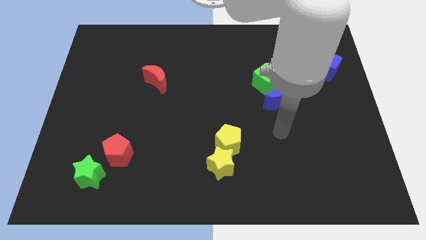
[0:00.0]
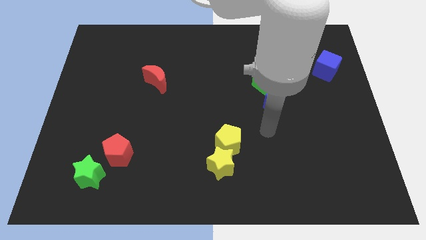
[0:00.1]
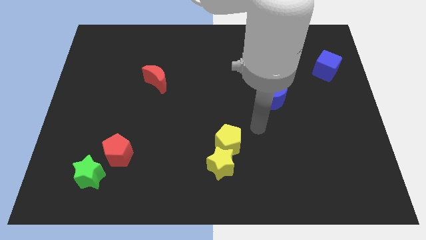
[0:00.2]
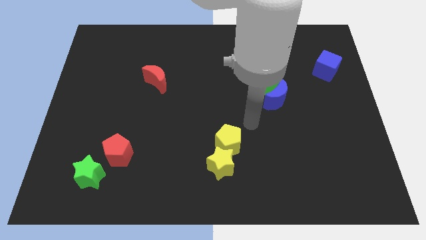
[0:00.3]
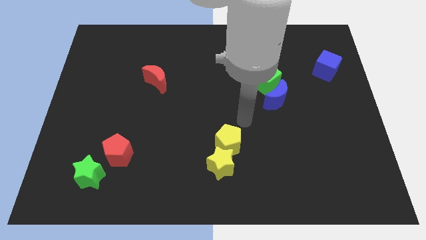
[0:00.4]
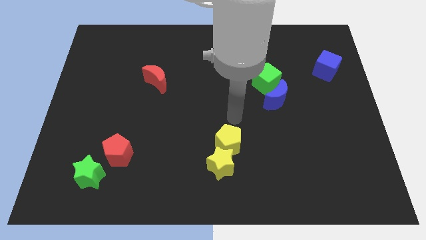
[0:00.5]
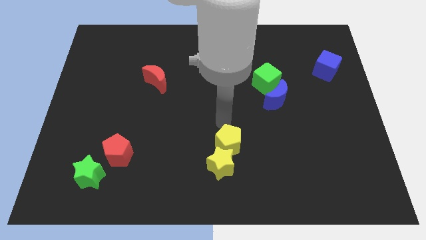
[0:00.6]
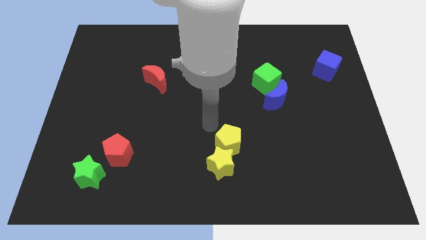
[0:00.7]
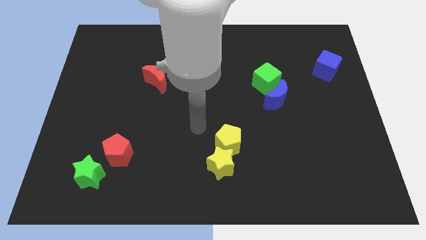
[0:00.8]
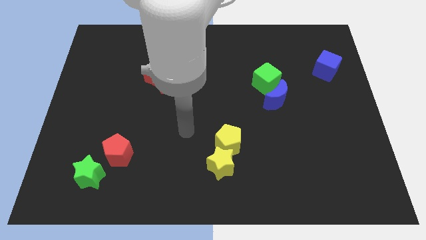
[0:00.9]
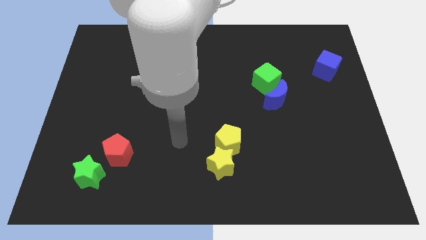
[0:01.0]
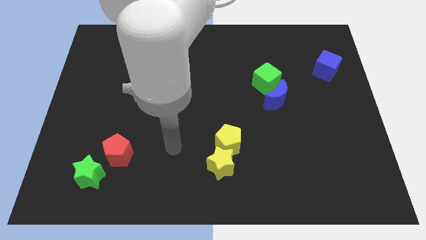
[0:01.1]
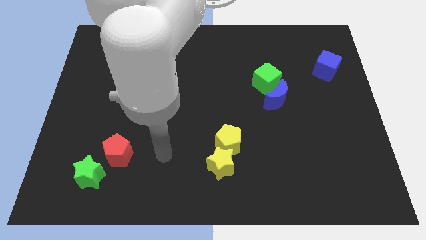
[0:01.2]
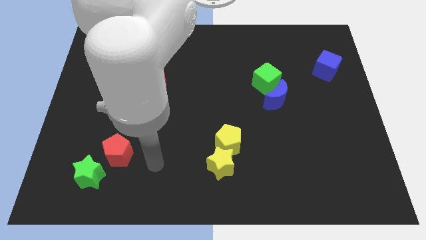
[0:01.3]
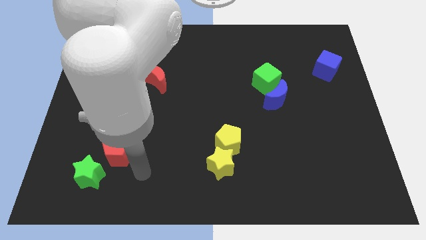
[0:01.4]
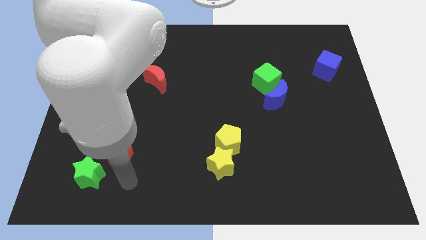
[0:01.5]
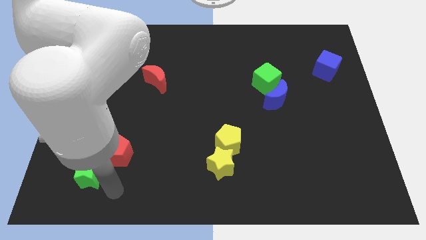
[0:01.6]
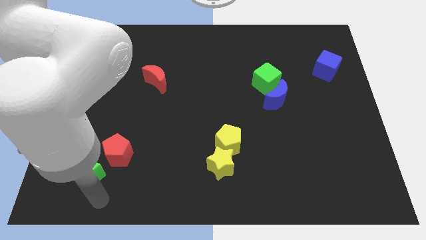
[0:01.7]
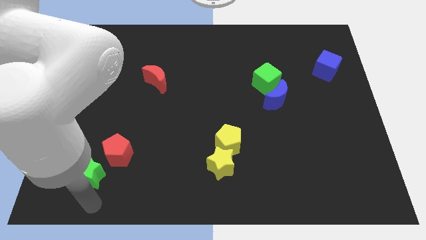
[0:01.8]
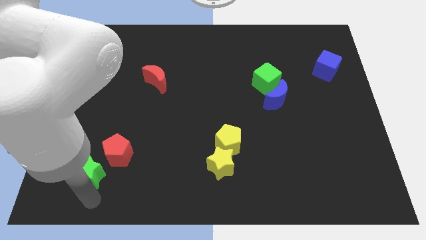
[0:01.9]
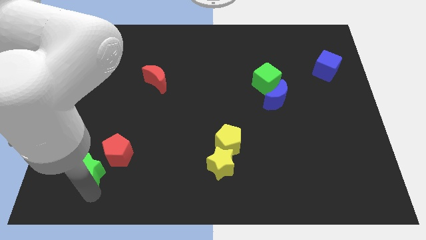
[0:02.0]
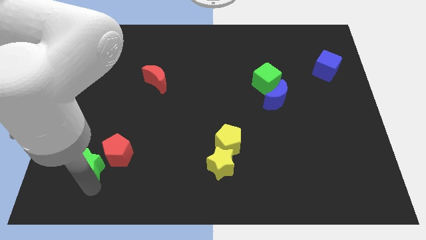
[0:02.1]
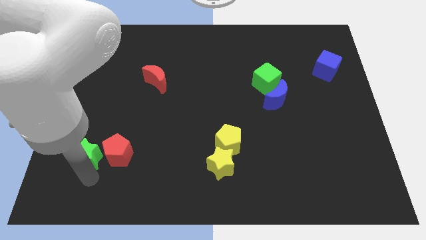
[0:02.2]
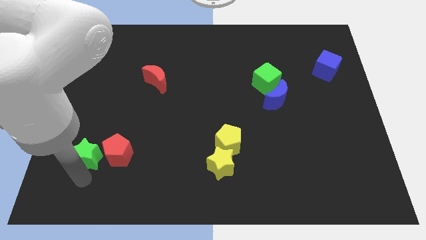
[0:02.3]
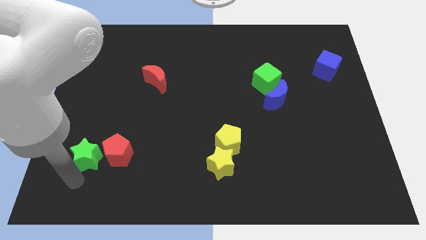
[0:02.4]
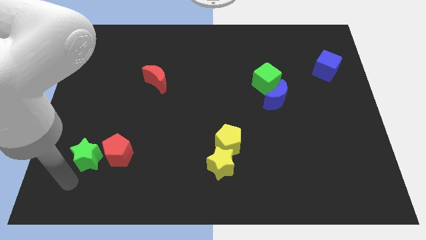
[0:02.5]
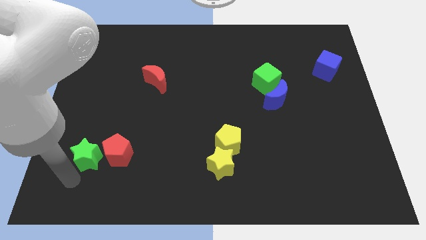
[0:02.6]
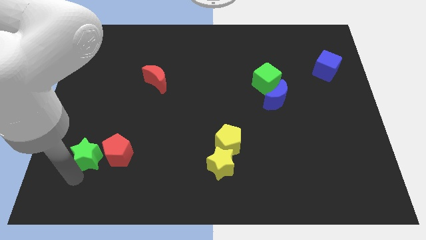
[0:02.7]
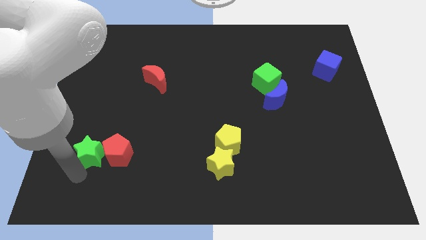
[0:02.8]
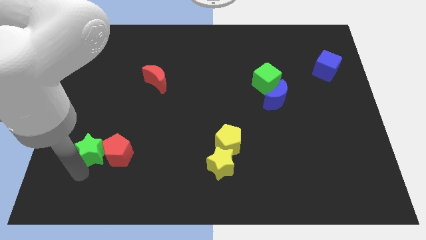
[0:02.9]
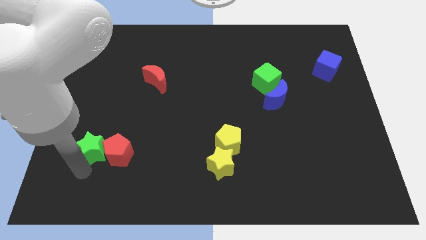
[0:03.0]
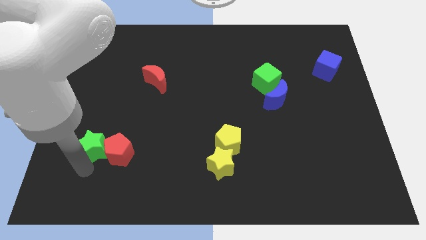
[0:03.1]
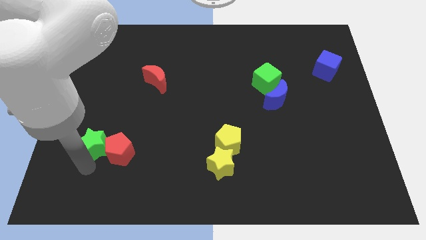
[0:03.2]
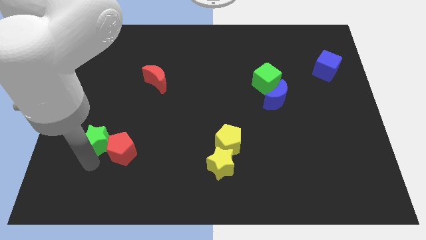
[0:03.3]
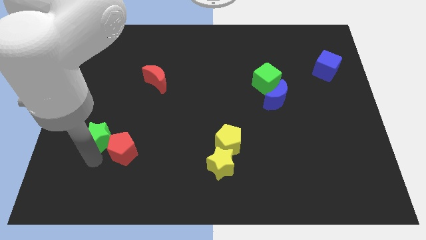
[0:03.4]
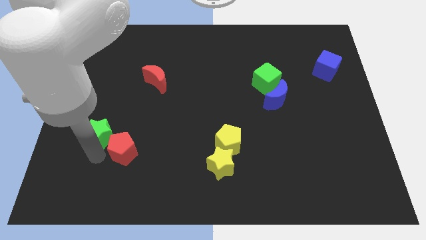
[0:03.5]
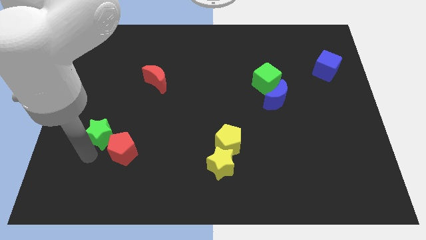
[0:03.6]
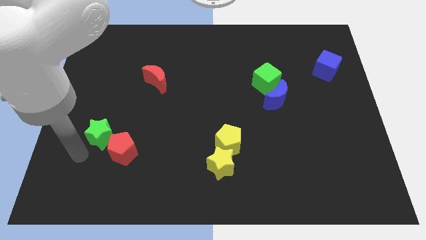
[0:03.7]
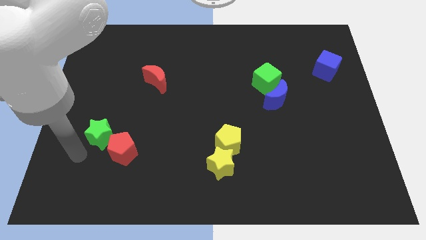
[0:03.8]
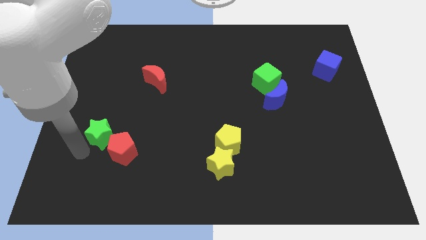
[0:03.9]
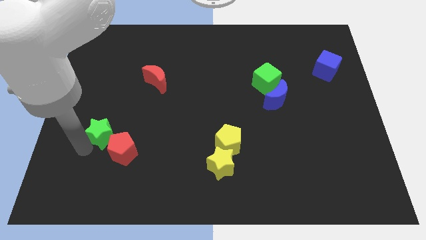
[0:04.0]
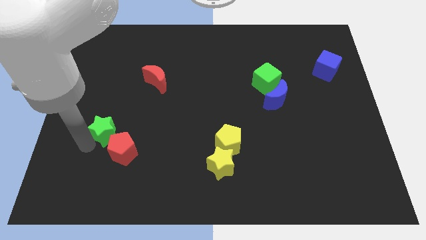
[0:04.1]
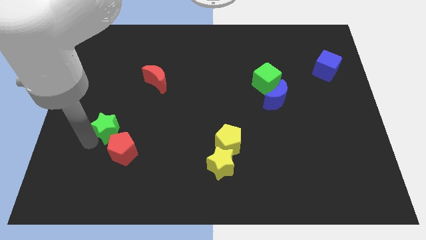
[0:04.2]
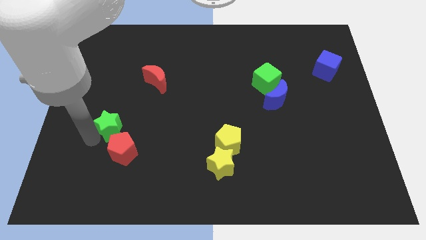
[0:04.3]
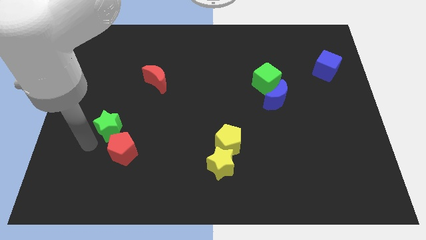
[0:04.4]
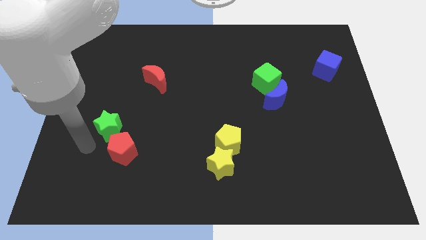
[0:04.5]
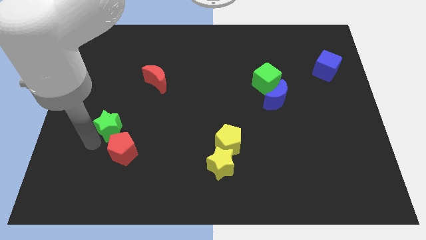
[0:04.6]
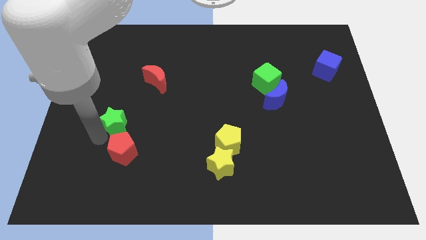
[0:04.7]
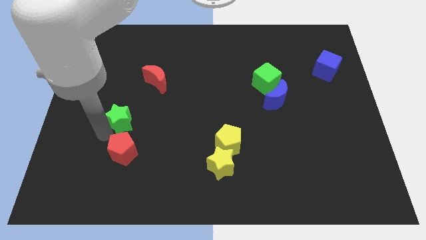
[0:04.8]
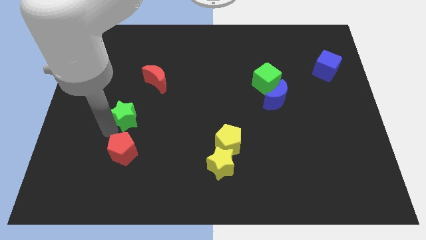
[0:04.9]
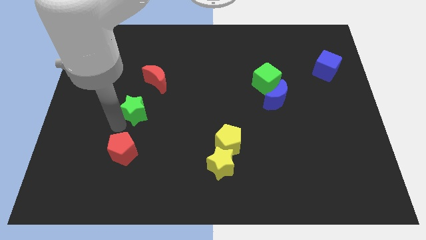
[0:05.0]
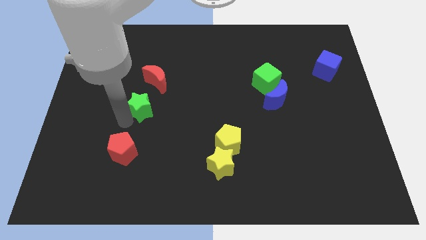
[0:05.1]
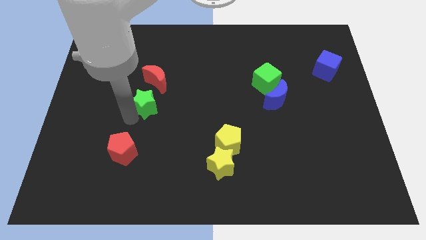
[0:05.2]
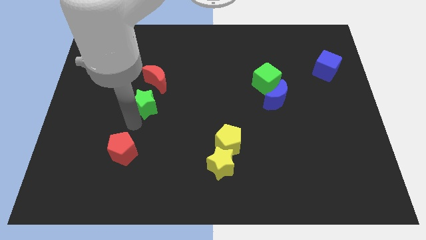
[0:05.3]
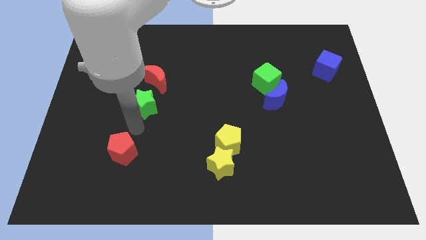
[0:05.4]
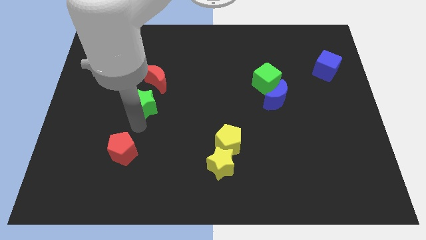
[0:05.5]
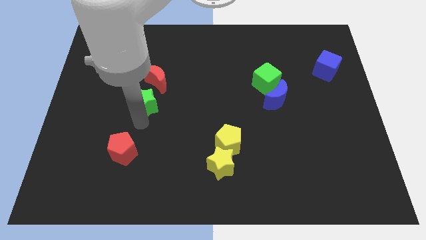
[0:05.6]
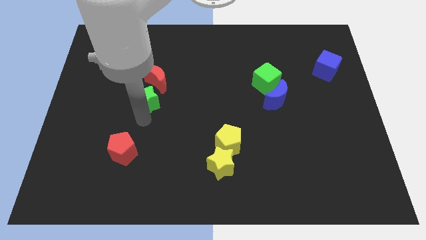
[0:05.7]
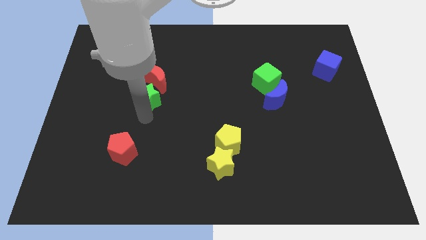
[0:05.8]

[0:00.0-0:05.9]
put the green star towards the red moon
